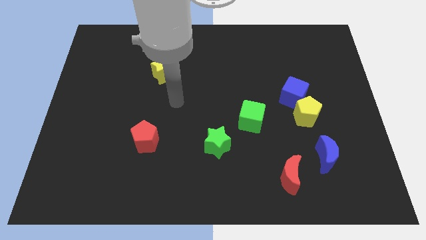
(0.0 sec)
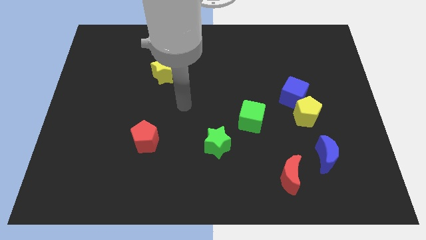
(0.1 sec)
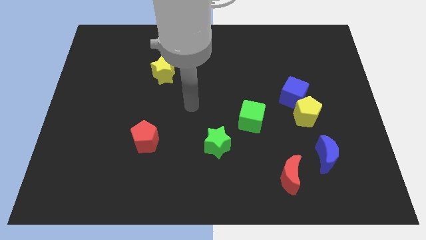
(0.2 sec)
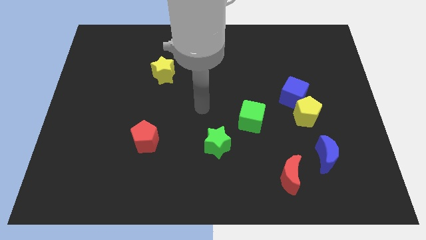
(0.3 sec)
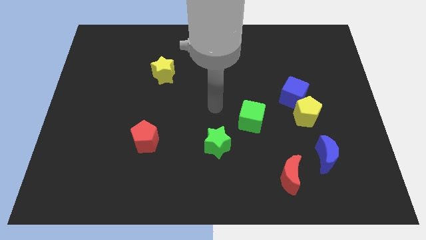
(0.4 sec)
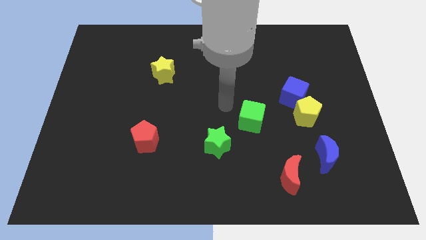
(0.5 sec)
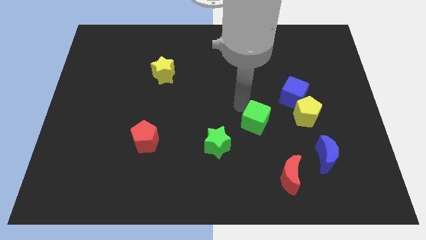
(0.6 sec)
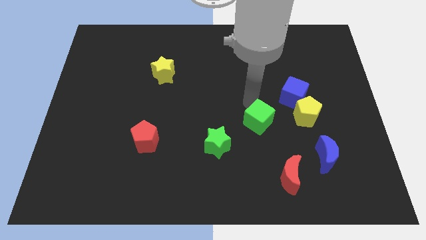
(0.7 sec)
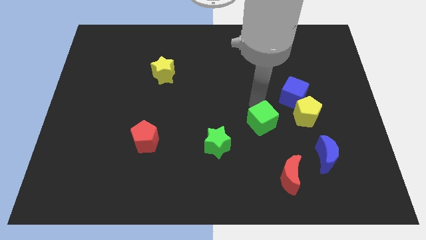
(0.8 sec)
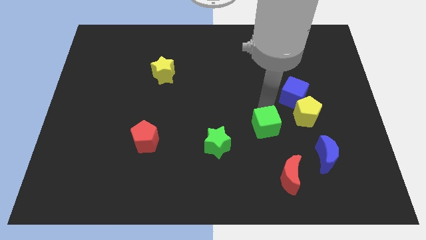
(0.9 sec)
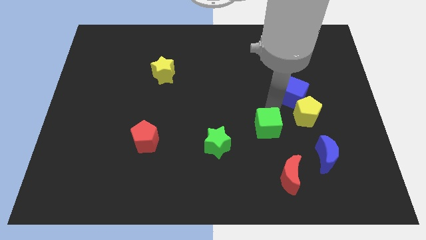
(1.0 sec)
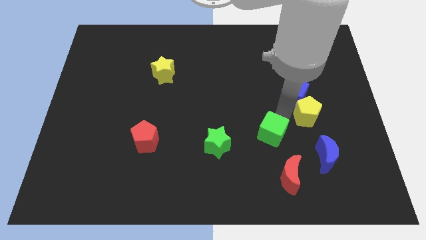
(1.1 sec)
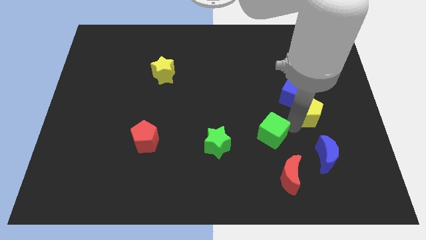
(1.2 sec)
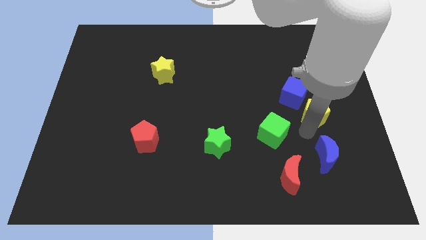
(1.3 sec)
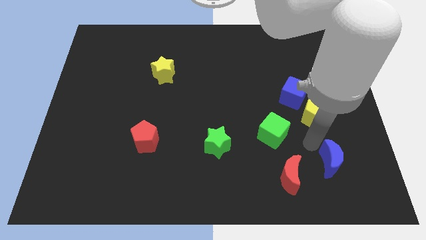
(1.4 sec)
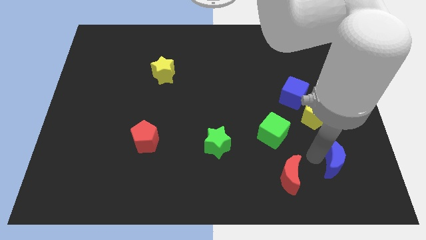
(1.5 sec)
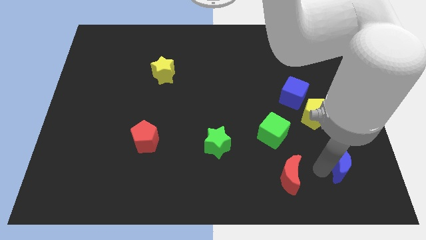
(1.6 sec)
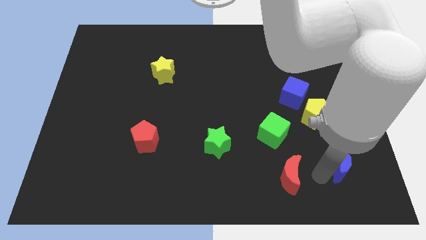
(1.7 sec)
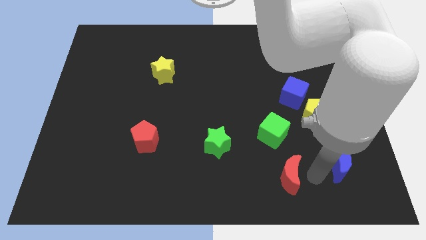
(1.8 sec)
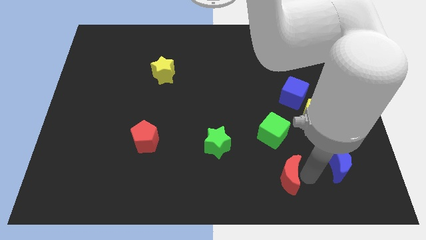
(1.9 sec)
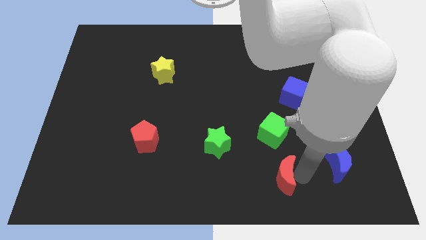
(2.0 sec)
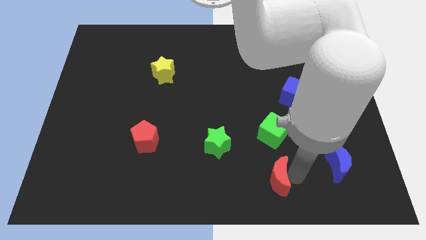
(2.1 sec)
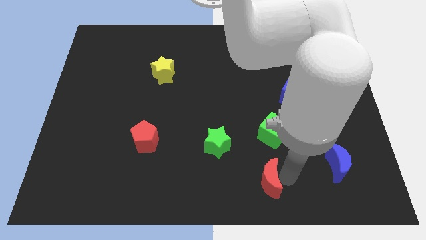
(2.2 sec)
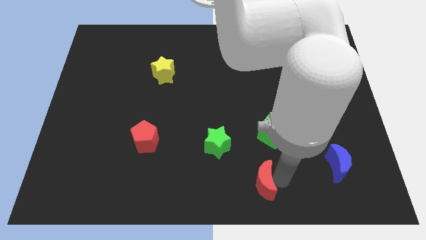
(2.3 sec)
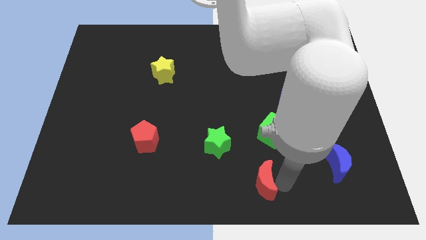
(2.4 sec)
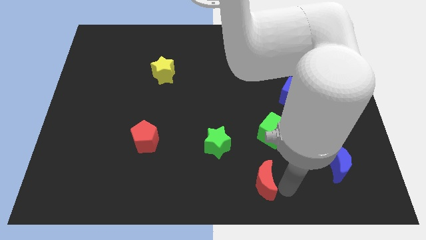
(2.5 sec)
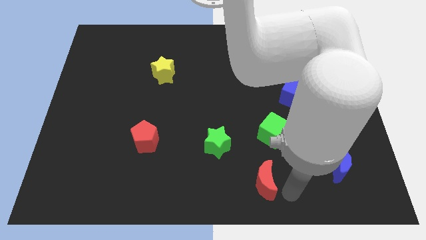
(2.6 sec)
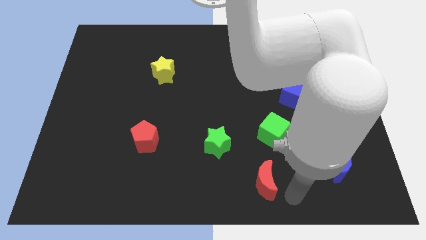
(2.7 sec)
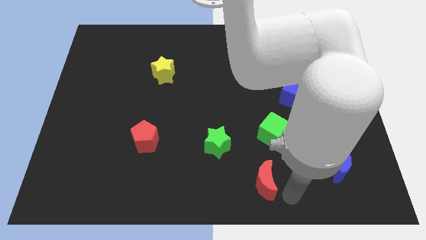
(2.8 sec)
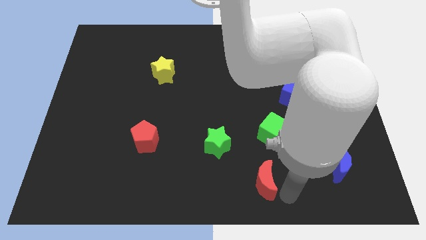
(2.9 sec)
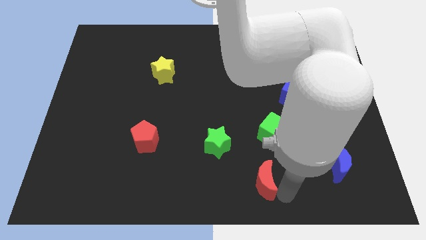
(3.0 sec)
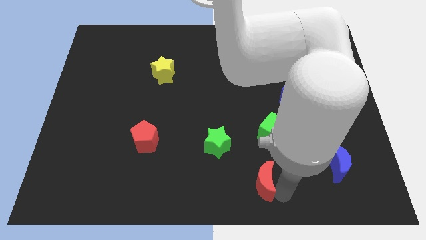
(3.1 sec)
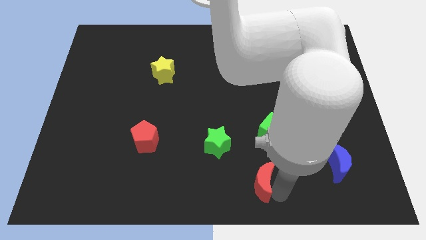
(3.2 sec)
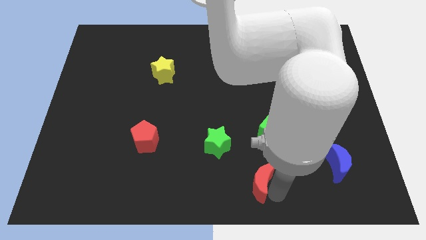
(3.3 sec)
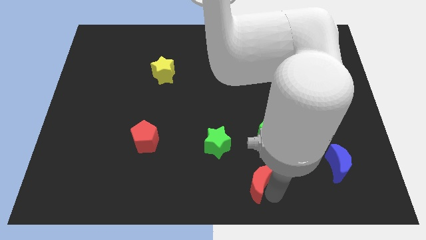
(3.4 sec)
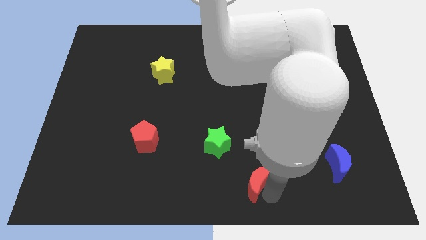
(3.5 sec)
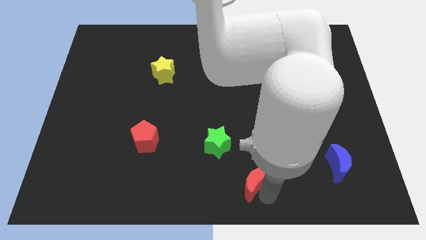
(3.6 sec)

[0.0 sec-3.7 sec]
push the red moon somewhat left

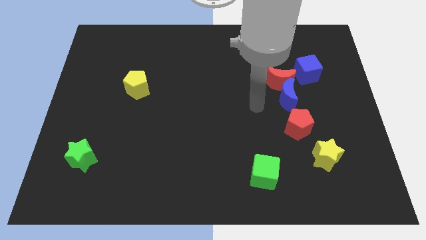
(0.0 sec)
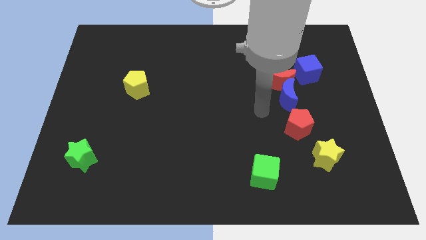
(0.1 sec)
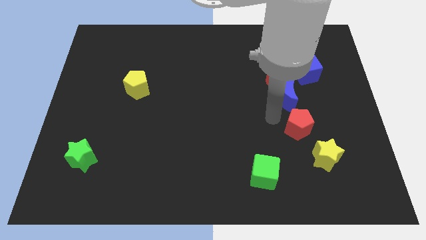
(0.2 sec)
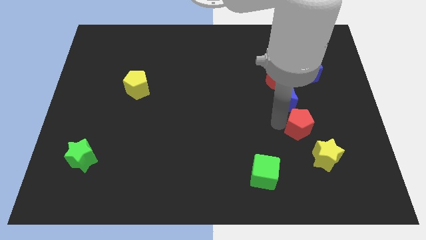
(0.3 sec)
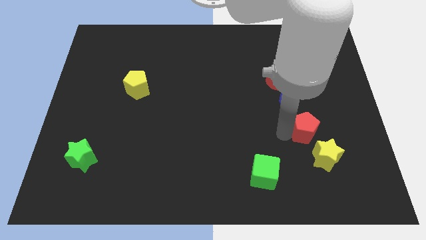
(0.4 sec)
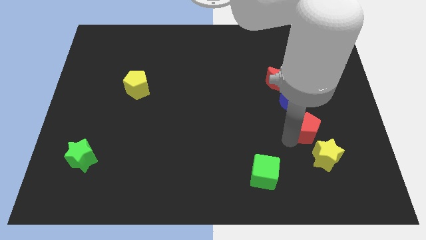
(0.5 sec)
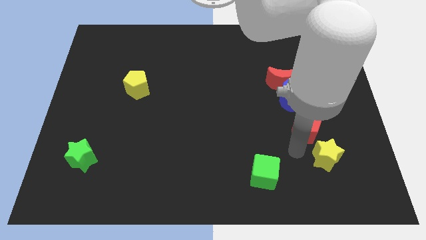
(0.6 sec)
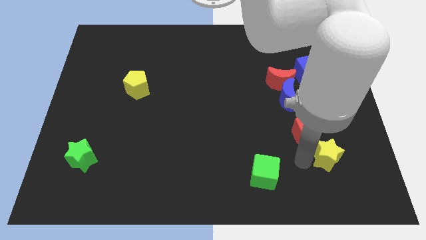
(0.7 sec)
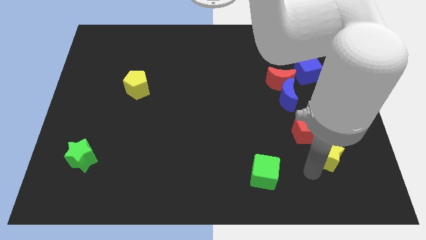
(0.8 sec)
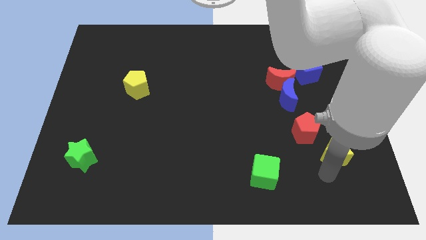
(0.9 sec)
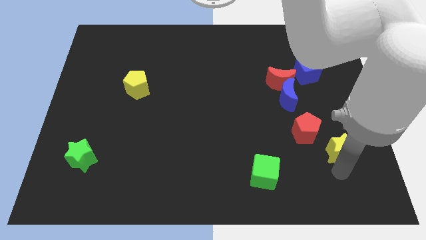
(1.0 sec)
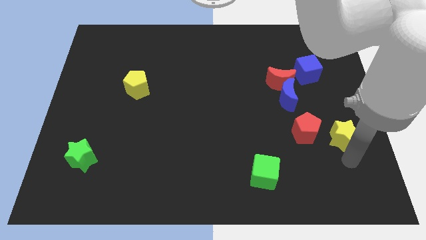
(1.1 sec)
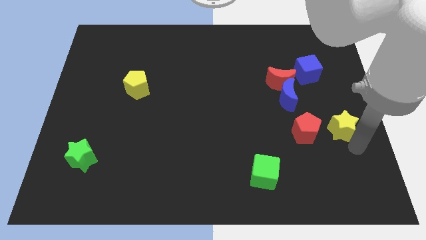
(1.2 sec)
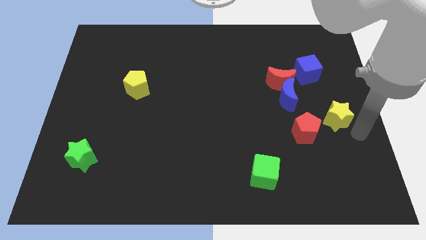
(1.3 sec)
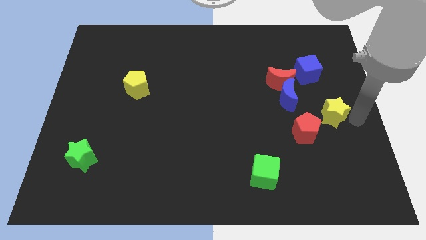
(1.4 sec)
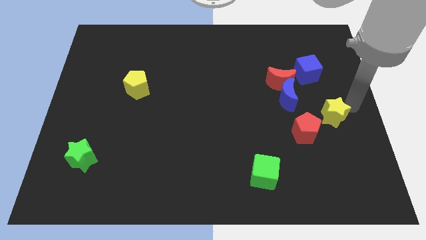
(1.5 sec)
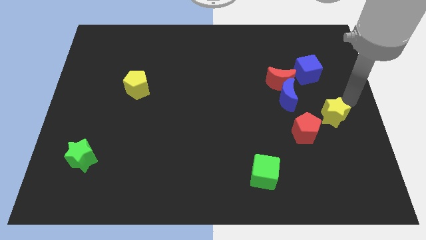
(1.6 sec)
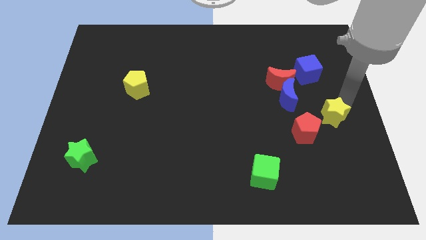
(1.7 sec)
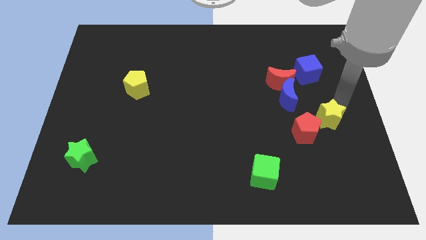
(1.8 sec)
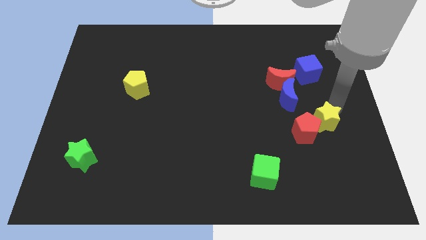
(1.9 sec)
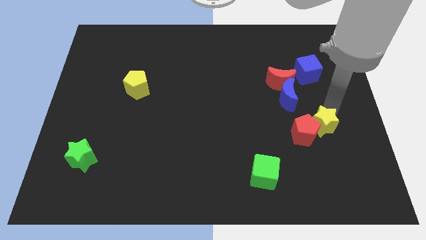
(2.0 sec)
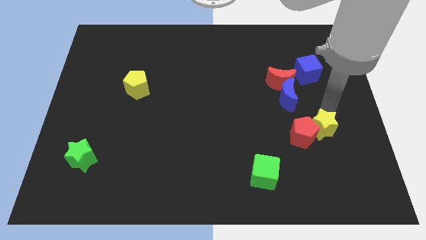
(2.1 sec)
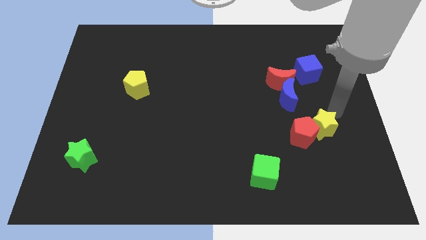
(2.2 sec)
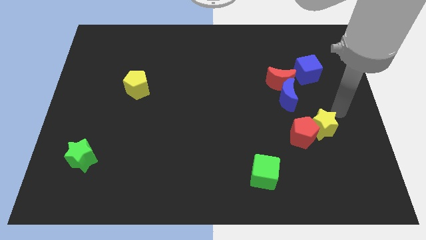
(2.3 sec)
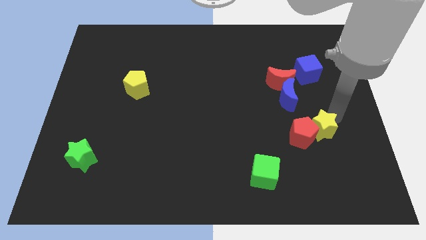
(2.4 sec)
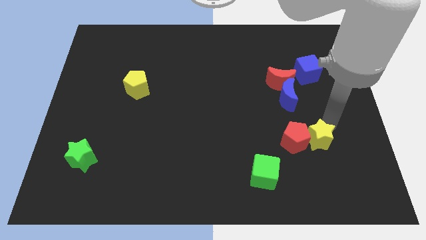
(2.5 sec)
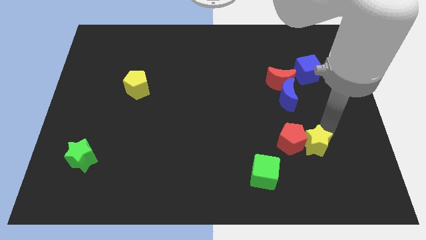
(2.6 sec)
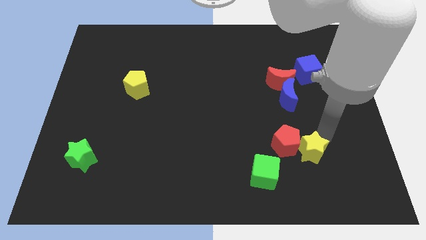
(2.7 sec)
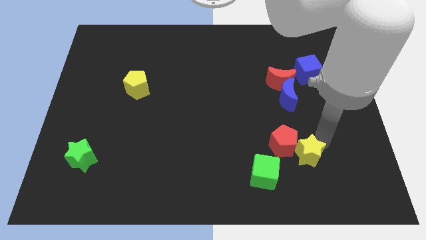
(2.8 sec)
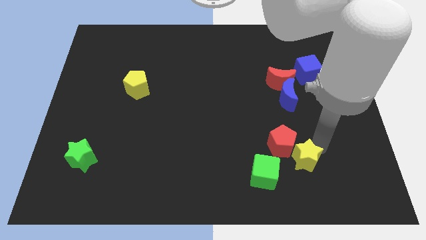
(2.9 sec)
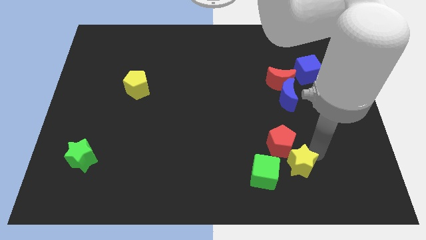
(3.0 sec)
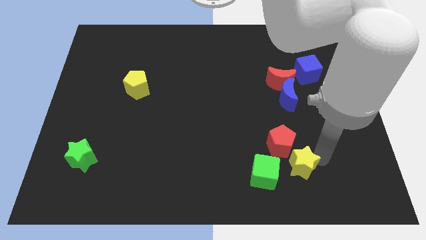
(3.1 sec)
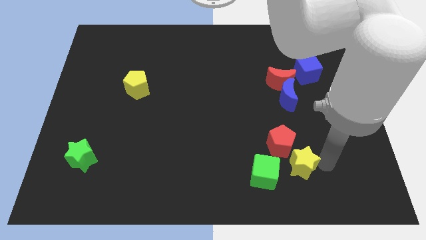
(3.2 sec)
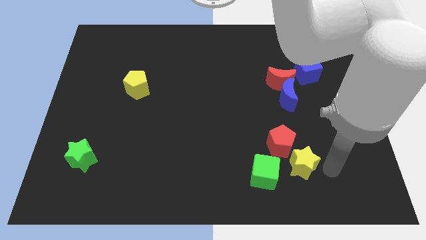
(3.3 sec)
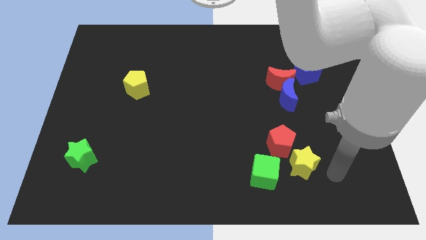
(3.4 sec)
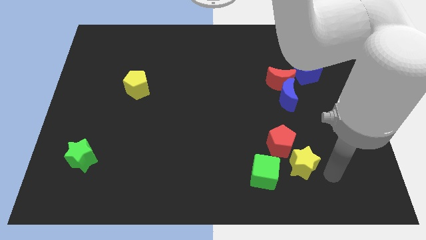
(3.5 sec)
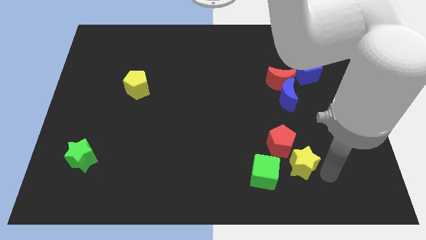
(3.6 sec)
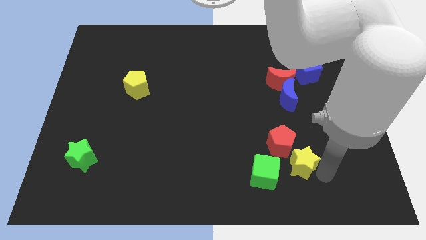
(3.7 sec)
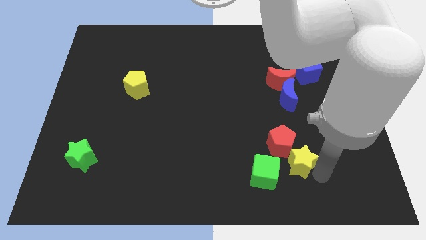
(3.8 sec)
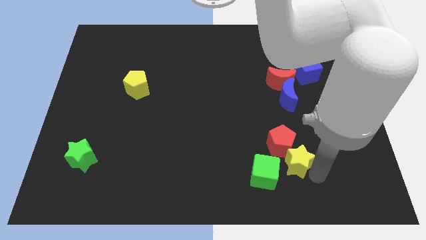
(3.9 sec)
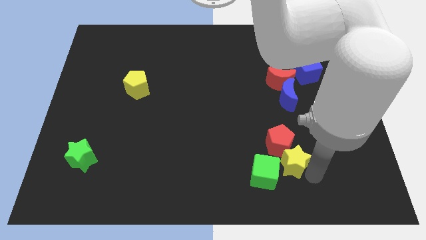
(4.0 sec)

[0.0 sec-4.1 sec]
slightly move the yellow star to the left

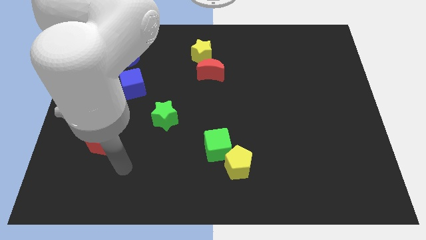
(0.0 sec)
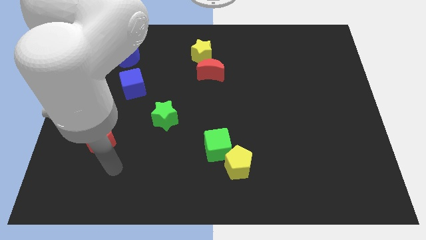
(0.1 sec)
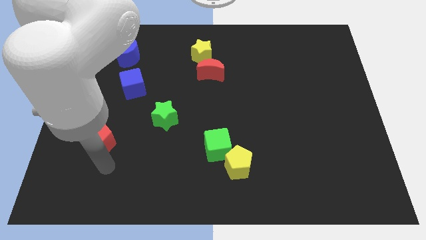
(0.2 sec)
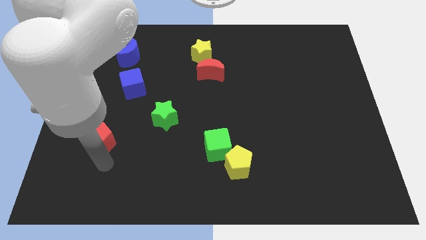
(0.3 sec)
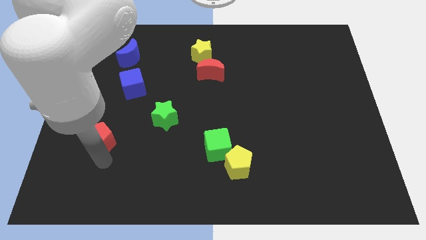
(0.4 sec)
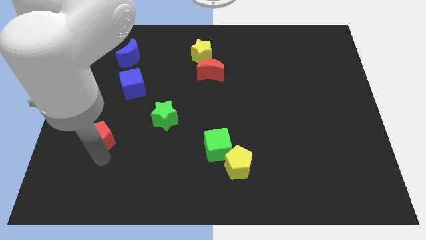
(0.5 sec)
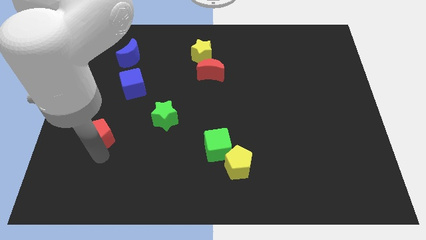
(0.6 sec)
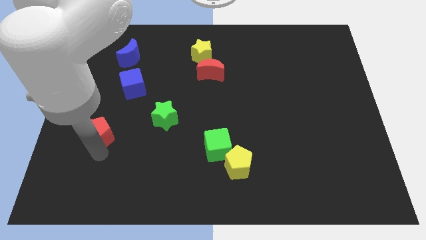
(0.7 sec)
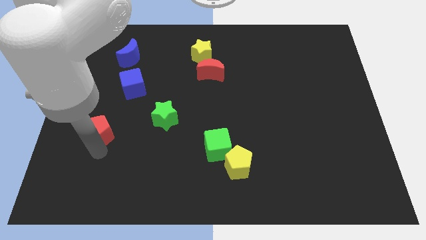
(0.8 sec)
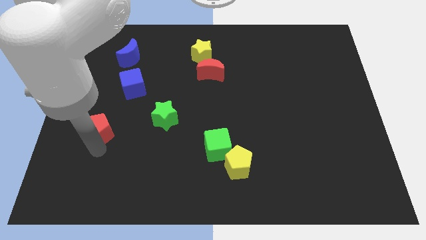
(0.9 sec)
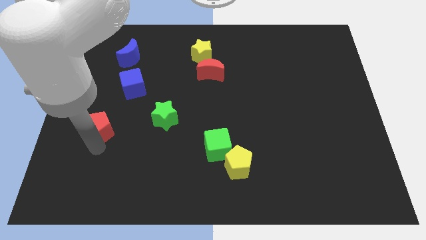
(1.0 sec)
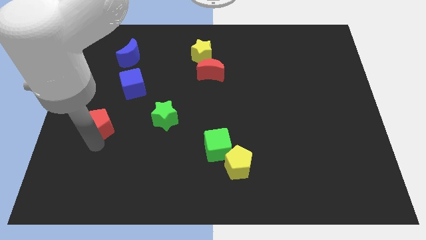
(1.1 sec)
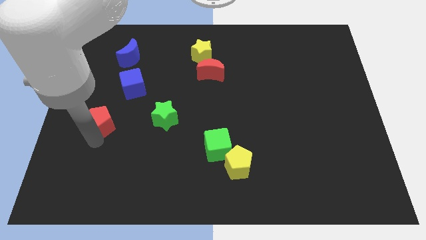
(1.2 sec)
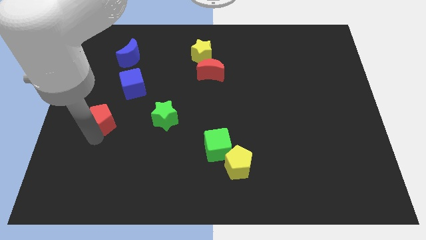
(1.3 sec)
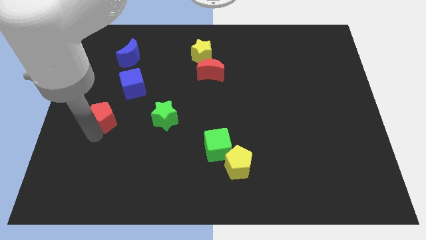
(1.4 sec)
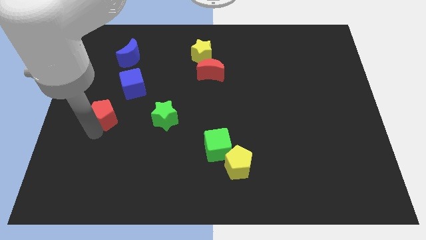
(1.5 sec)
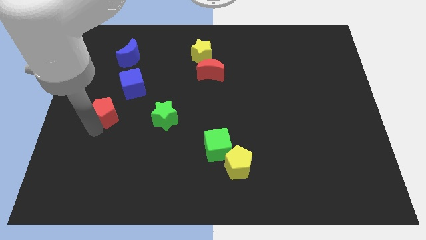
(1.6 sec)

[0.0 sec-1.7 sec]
slightly push the red pentagon upwards
